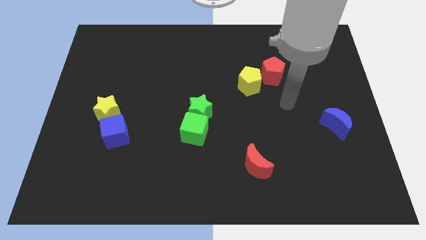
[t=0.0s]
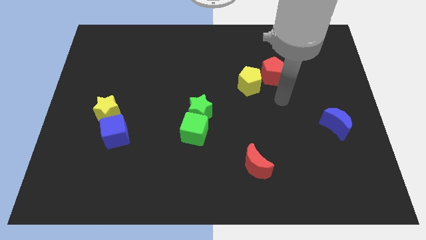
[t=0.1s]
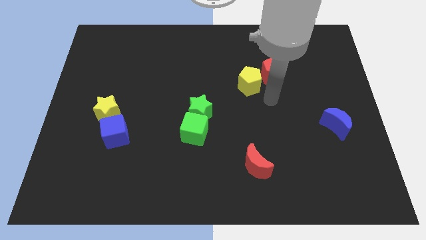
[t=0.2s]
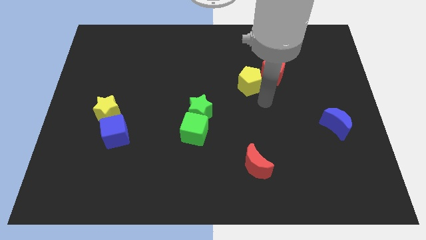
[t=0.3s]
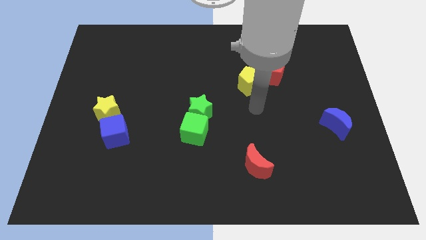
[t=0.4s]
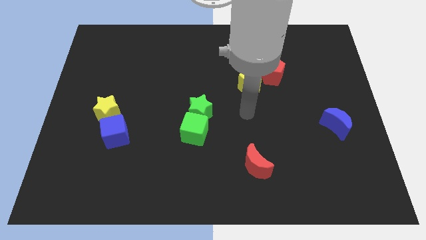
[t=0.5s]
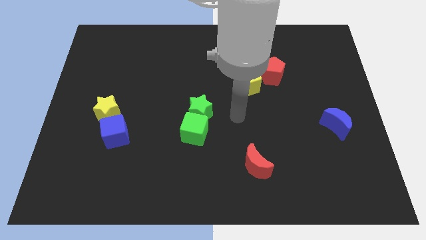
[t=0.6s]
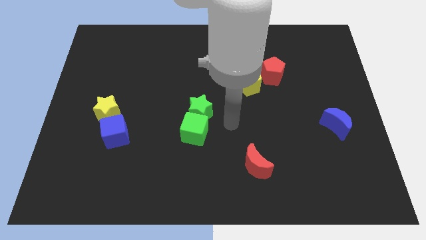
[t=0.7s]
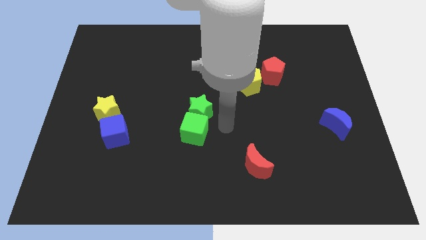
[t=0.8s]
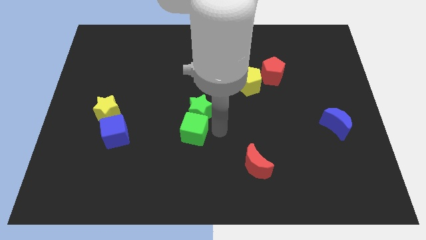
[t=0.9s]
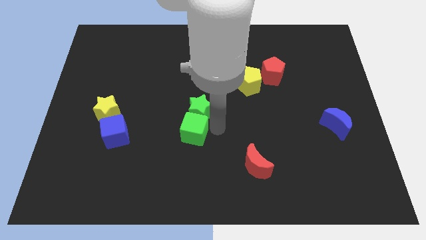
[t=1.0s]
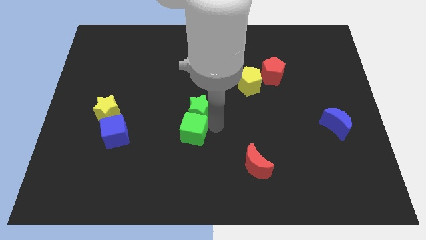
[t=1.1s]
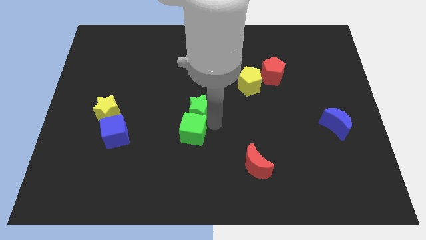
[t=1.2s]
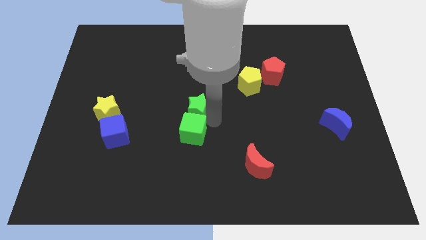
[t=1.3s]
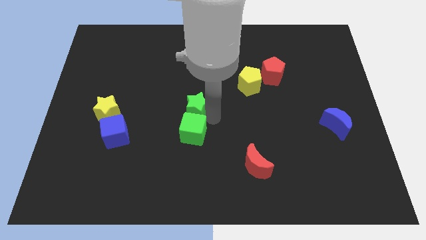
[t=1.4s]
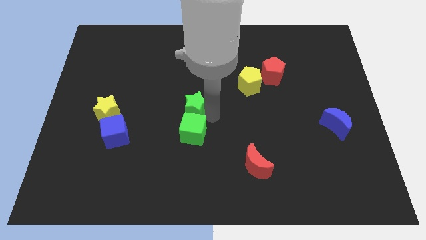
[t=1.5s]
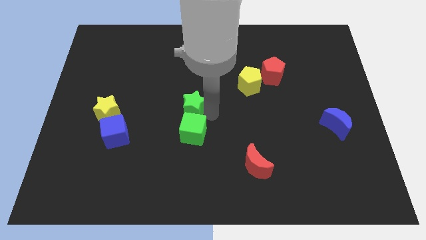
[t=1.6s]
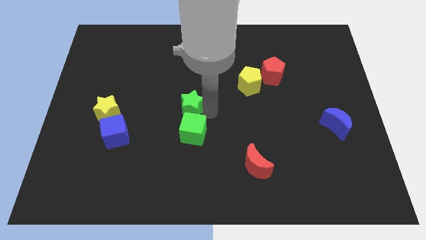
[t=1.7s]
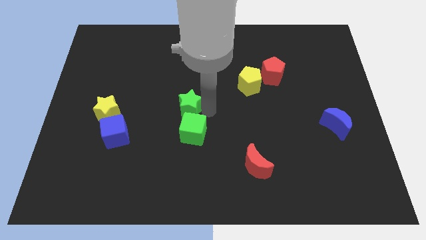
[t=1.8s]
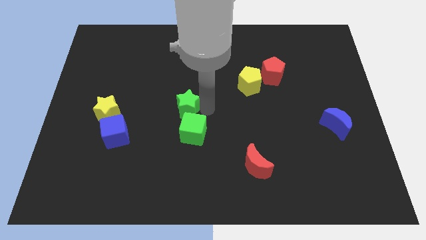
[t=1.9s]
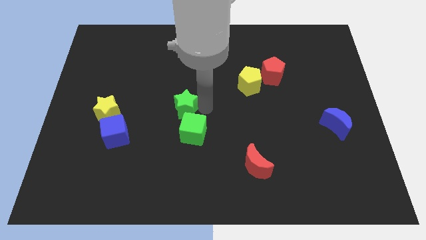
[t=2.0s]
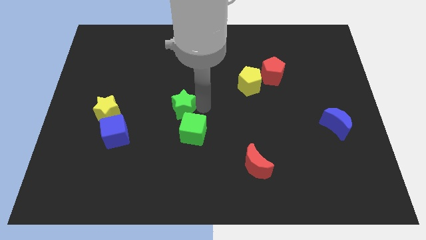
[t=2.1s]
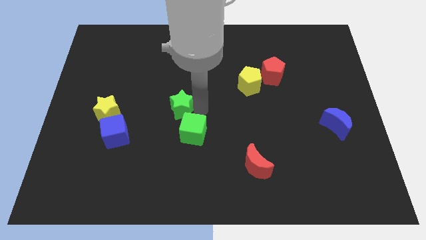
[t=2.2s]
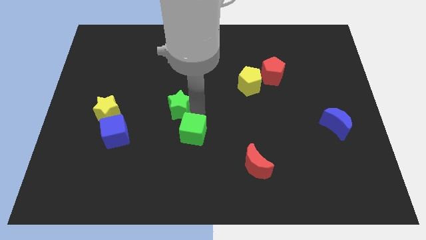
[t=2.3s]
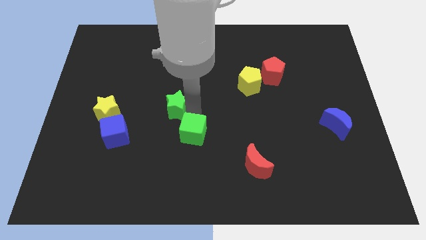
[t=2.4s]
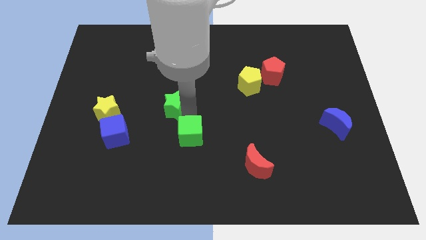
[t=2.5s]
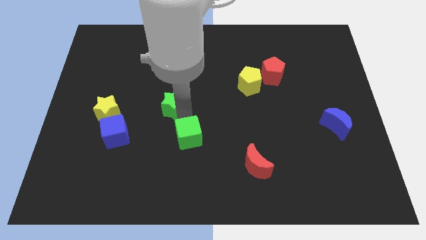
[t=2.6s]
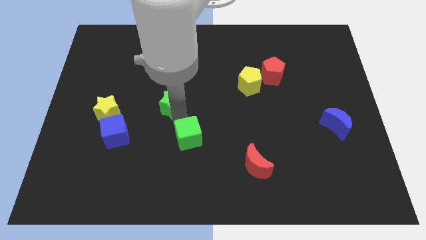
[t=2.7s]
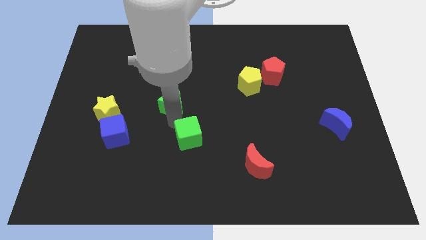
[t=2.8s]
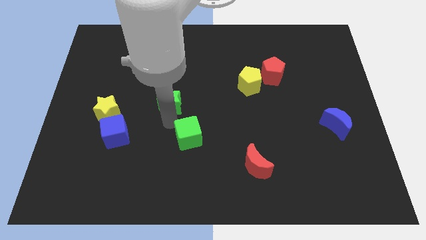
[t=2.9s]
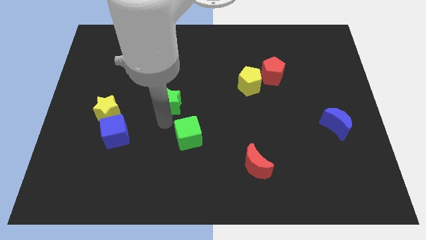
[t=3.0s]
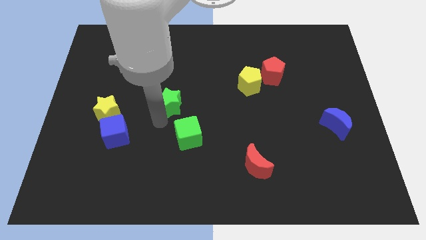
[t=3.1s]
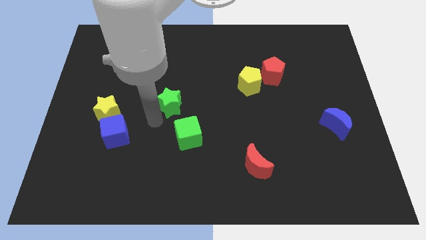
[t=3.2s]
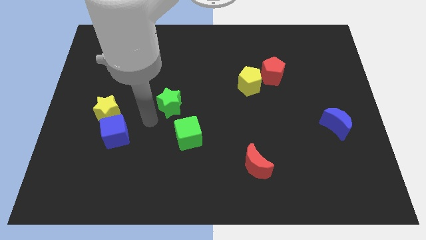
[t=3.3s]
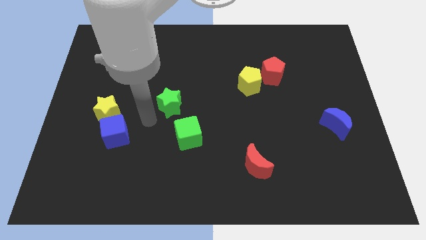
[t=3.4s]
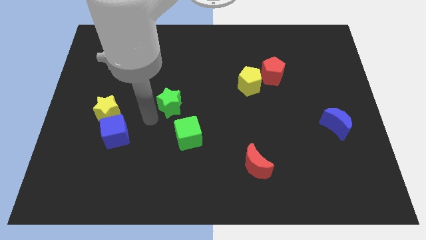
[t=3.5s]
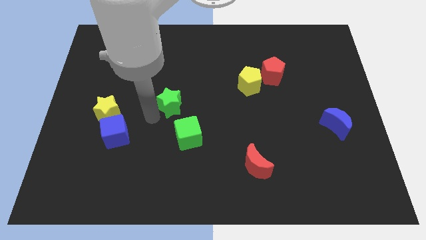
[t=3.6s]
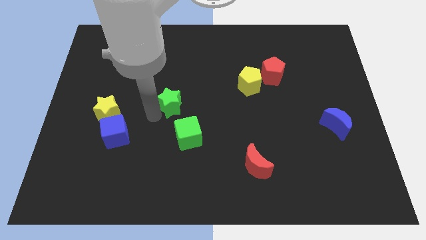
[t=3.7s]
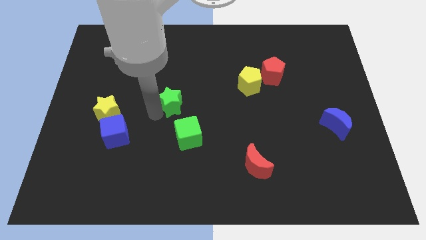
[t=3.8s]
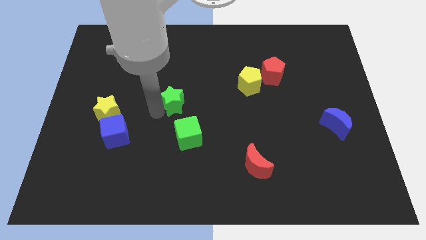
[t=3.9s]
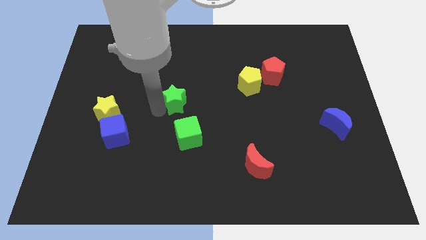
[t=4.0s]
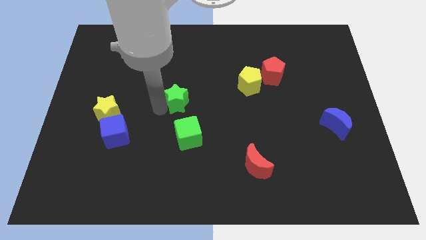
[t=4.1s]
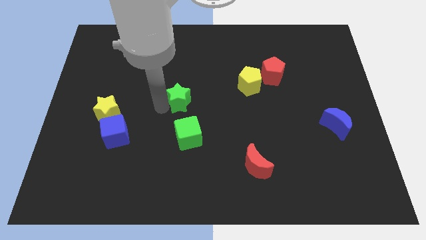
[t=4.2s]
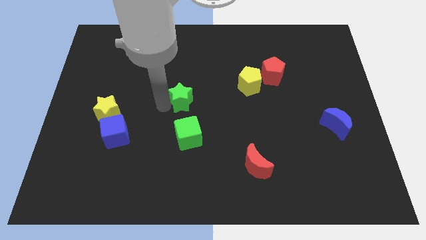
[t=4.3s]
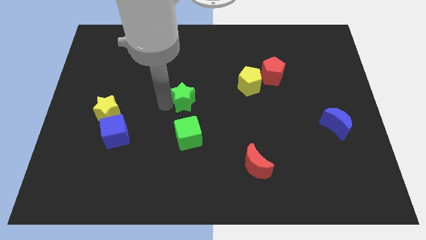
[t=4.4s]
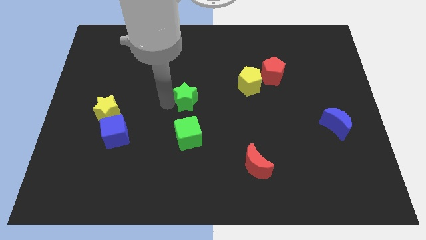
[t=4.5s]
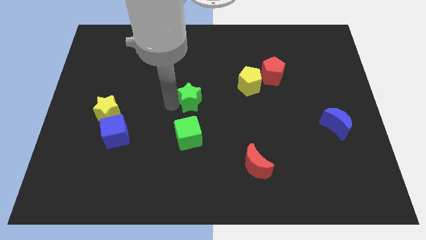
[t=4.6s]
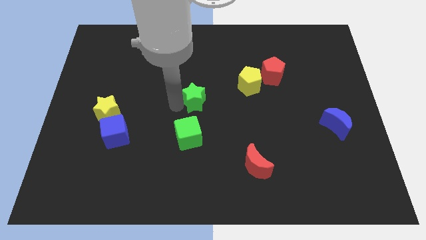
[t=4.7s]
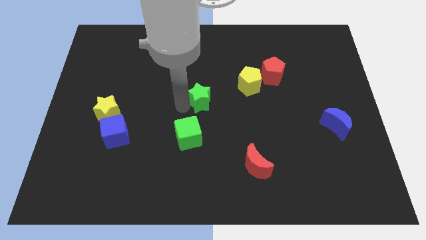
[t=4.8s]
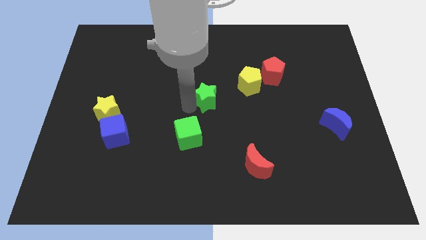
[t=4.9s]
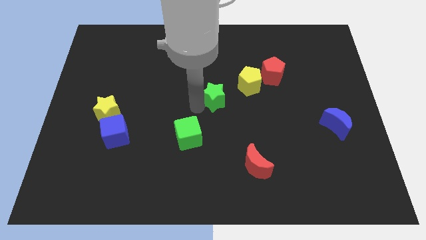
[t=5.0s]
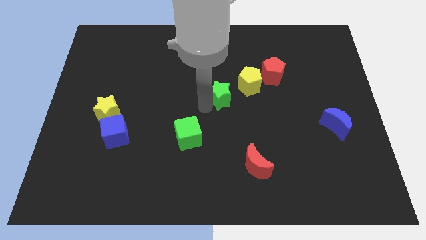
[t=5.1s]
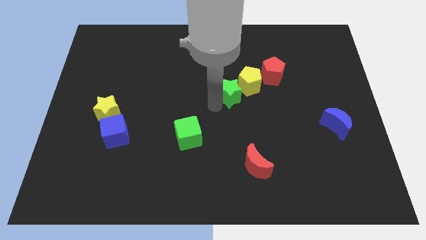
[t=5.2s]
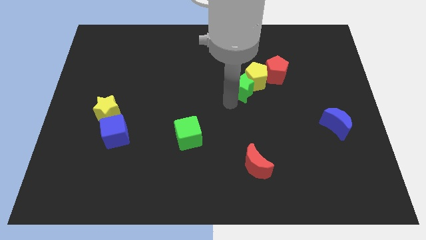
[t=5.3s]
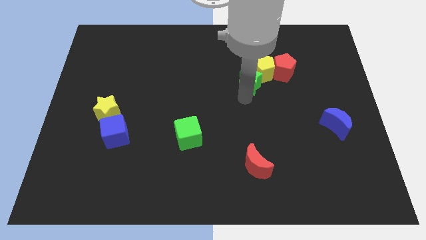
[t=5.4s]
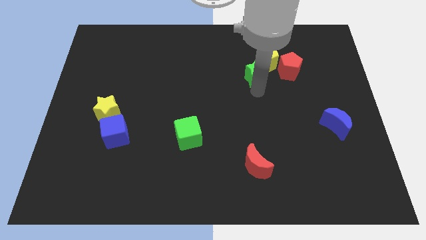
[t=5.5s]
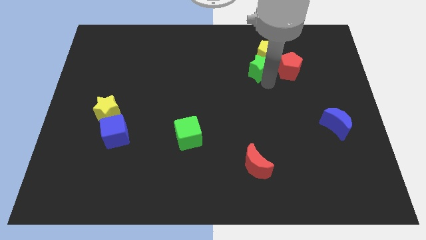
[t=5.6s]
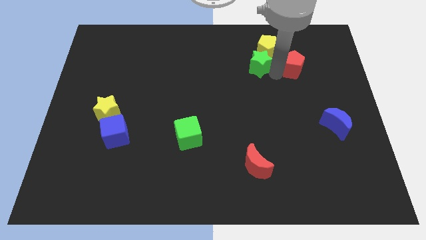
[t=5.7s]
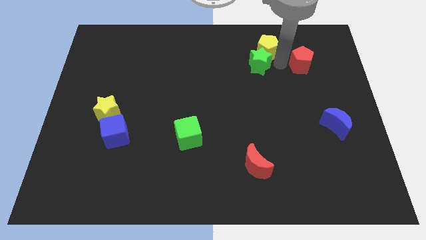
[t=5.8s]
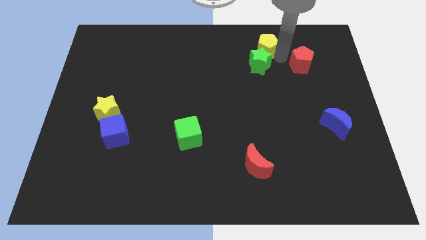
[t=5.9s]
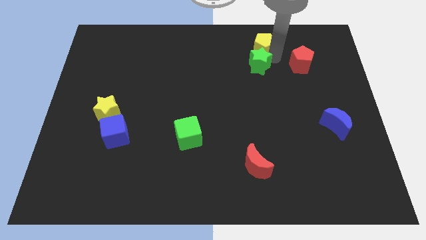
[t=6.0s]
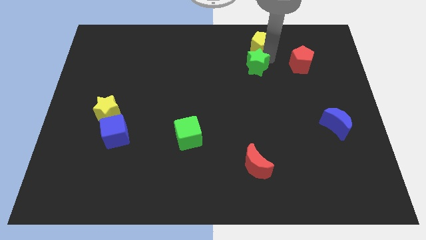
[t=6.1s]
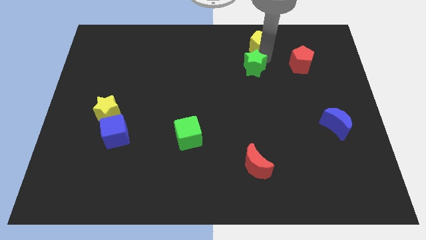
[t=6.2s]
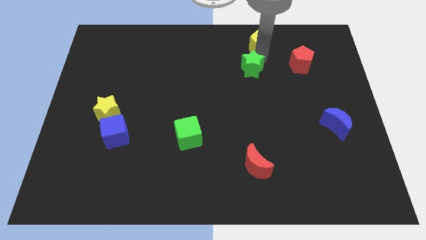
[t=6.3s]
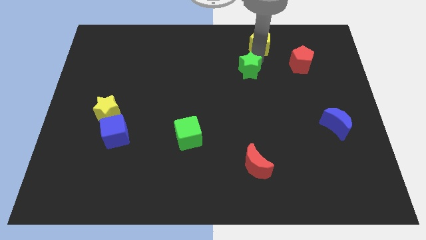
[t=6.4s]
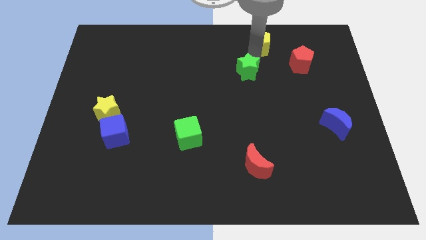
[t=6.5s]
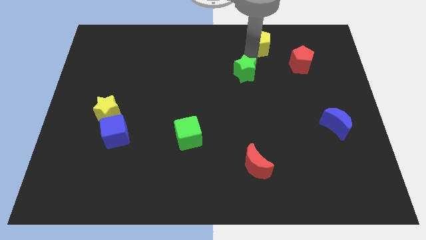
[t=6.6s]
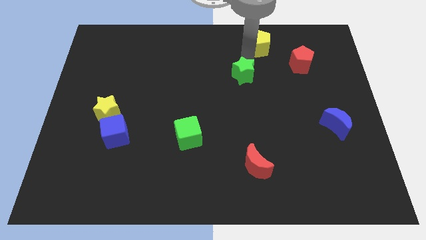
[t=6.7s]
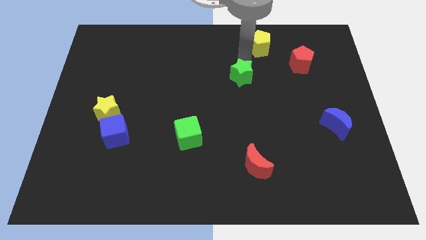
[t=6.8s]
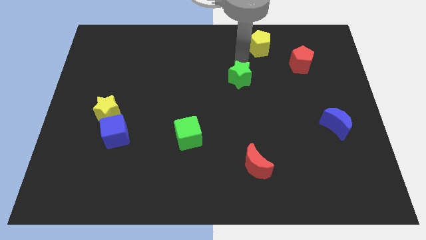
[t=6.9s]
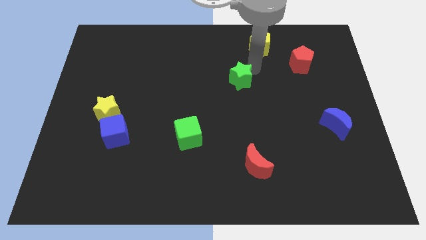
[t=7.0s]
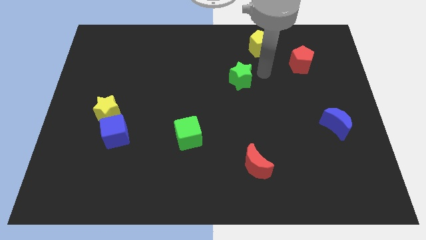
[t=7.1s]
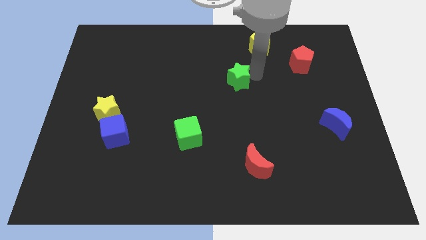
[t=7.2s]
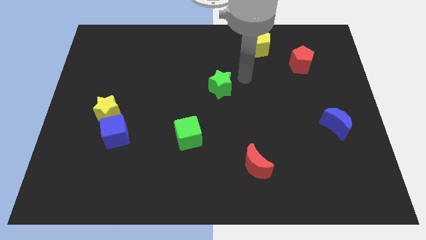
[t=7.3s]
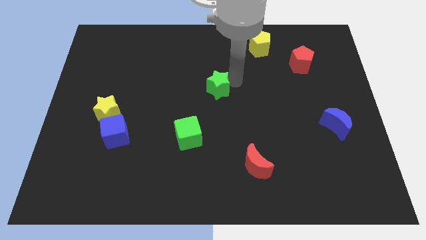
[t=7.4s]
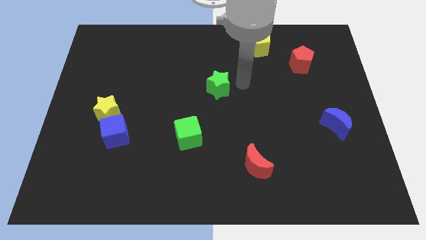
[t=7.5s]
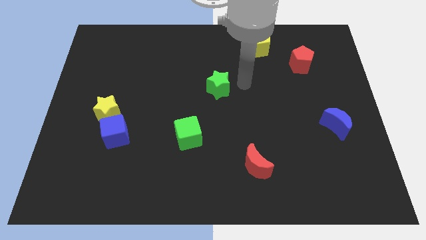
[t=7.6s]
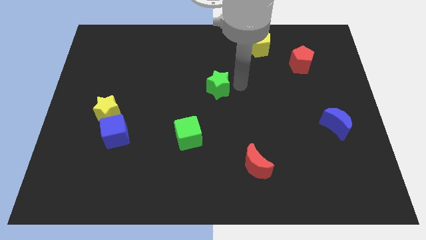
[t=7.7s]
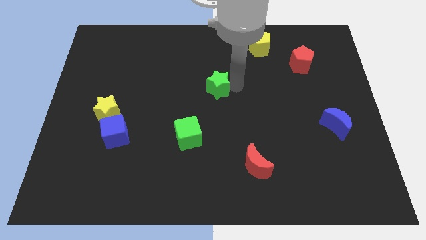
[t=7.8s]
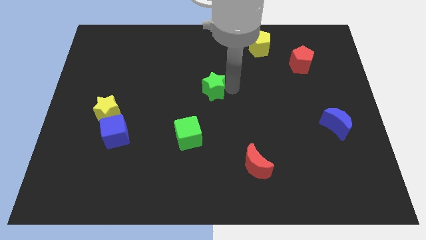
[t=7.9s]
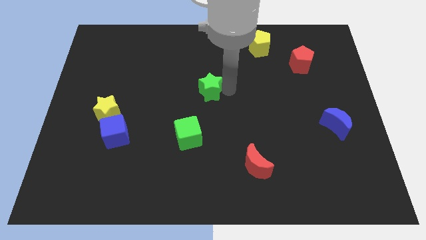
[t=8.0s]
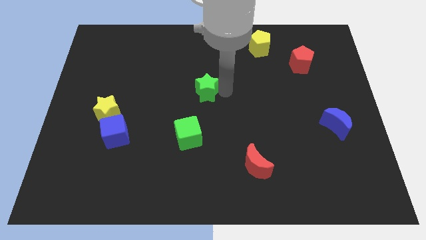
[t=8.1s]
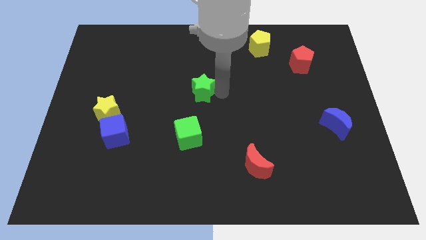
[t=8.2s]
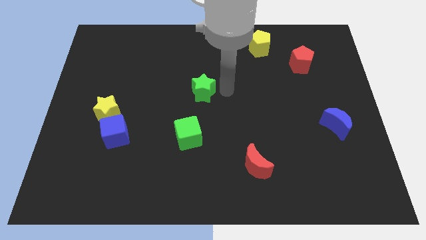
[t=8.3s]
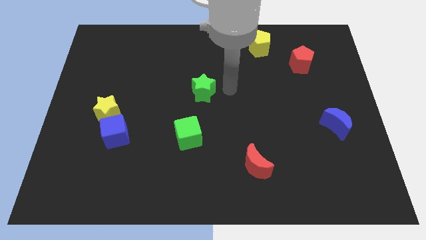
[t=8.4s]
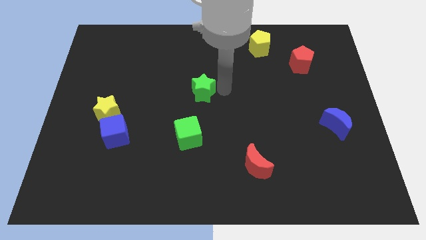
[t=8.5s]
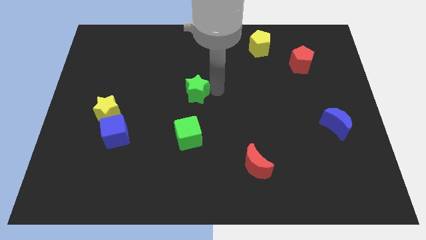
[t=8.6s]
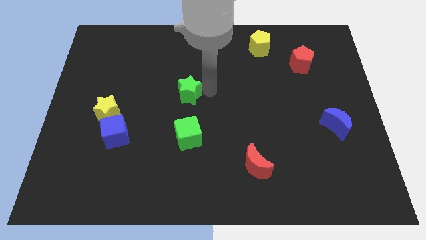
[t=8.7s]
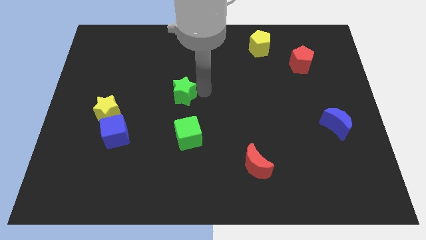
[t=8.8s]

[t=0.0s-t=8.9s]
move the green star up and left slightly
